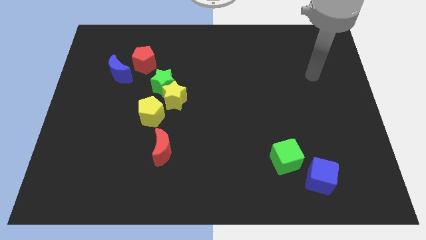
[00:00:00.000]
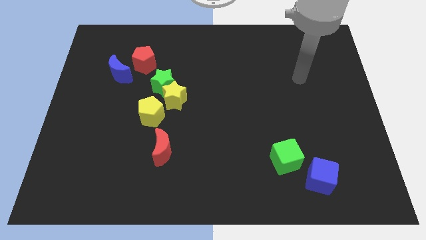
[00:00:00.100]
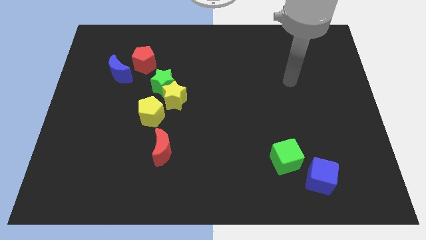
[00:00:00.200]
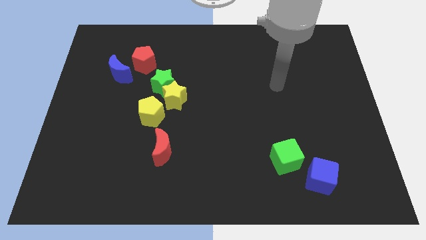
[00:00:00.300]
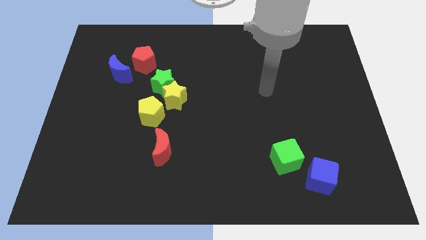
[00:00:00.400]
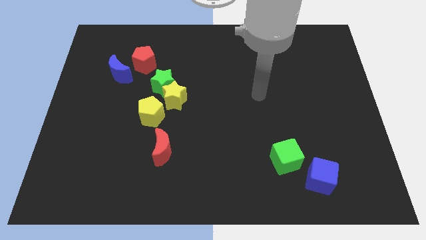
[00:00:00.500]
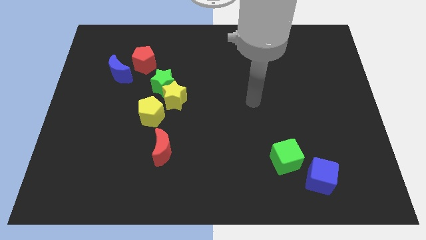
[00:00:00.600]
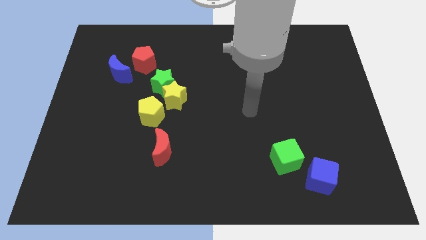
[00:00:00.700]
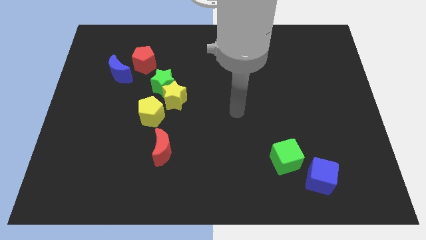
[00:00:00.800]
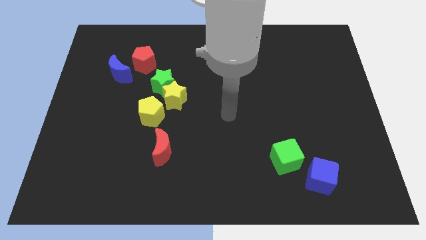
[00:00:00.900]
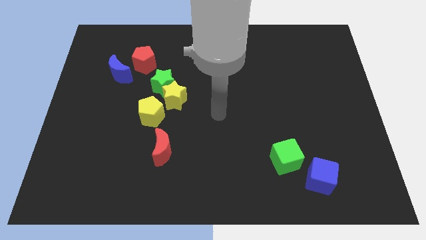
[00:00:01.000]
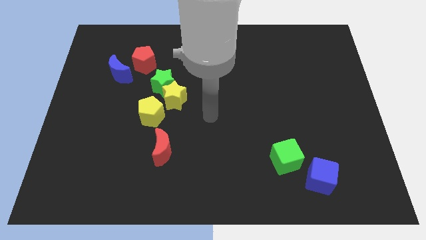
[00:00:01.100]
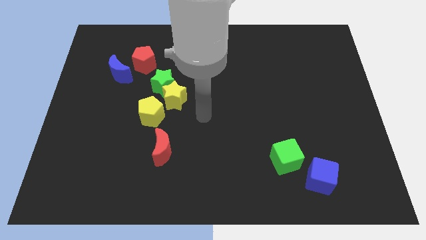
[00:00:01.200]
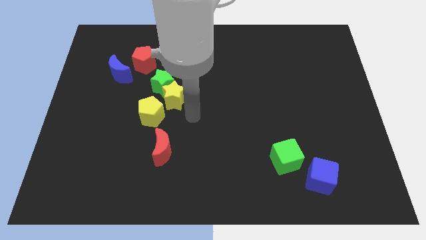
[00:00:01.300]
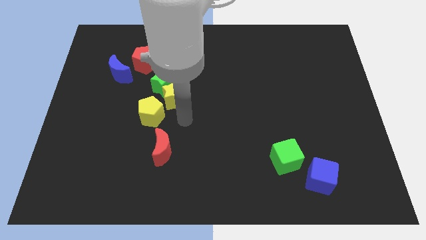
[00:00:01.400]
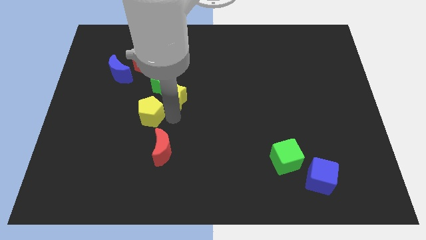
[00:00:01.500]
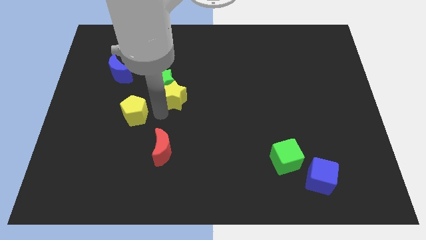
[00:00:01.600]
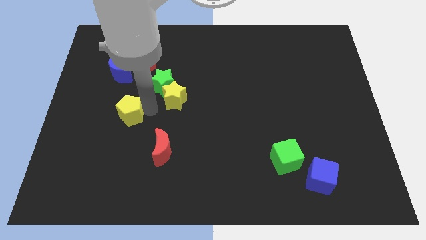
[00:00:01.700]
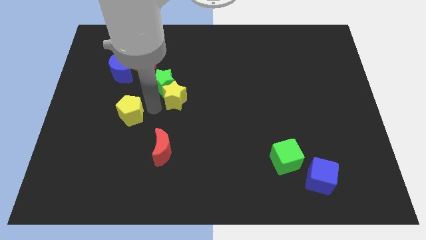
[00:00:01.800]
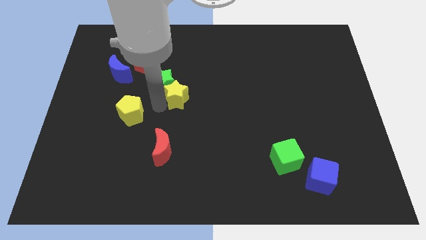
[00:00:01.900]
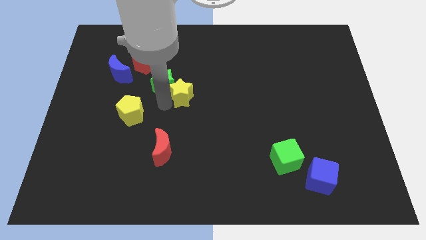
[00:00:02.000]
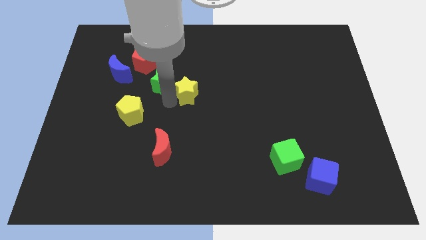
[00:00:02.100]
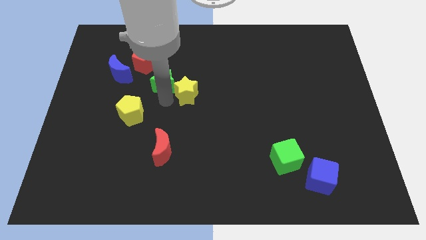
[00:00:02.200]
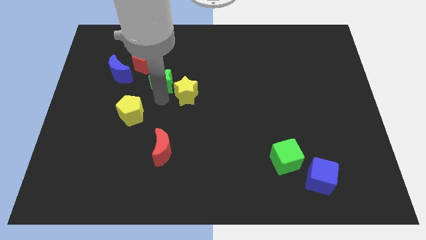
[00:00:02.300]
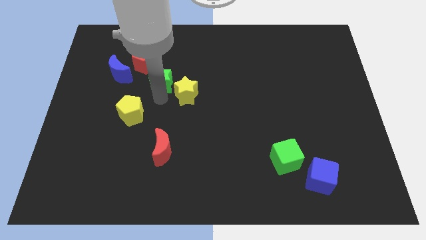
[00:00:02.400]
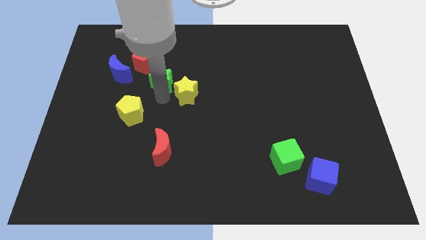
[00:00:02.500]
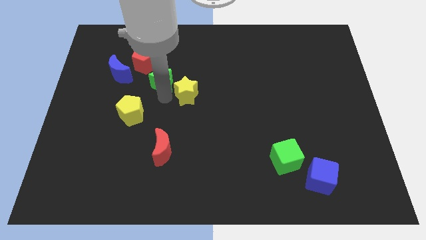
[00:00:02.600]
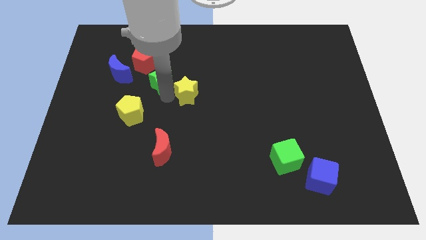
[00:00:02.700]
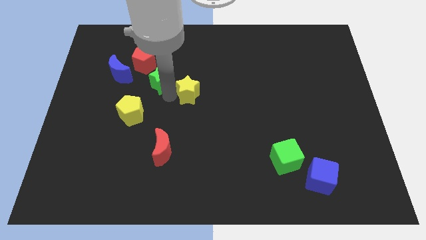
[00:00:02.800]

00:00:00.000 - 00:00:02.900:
pull the yellow star apart from the green star and yellow pentagon

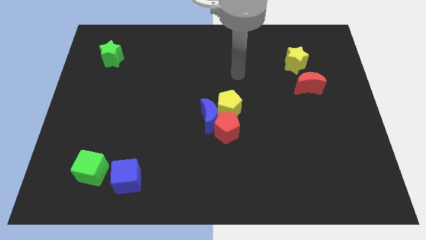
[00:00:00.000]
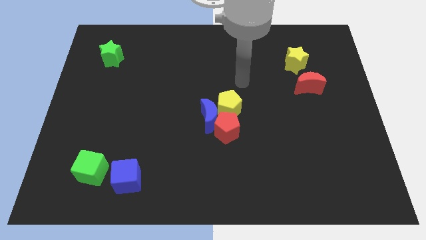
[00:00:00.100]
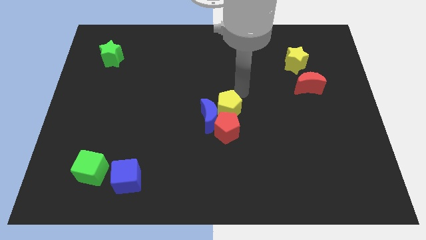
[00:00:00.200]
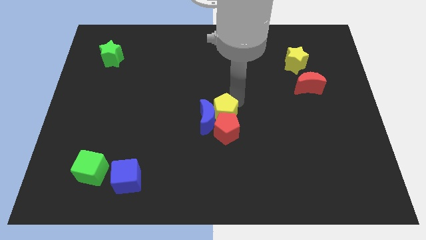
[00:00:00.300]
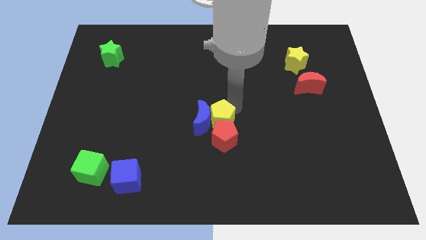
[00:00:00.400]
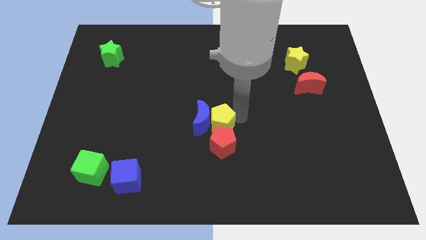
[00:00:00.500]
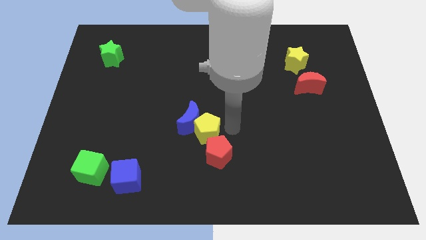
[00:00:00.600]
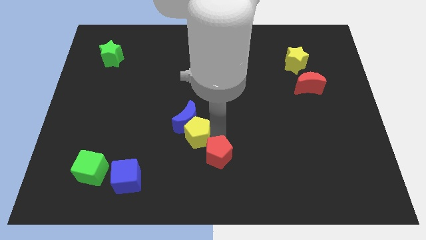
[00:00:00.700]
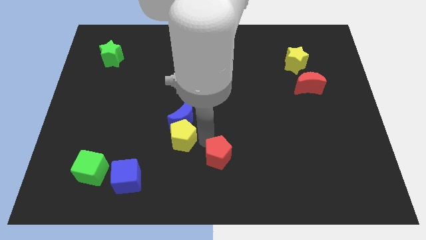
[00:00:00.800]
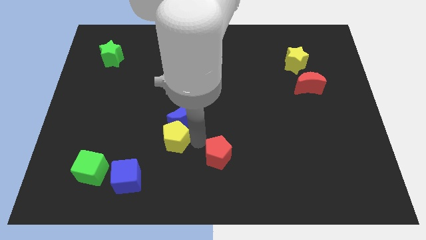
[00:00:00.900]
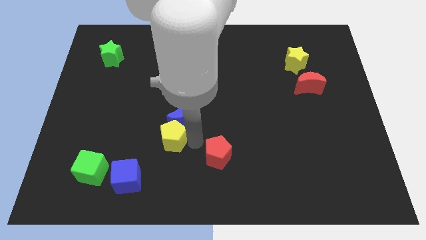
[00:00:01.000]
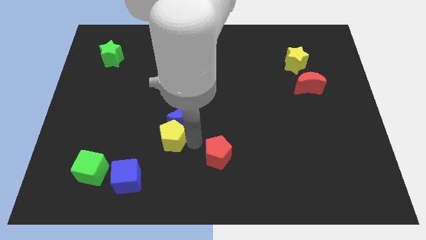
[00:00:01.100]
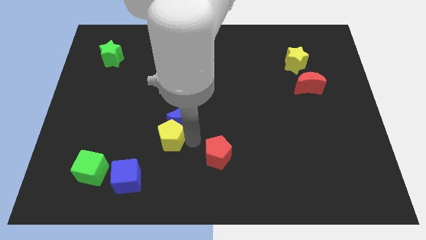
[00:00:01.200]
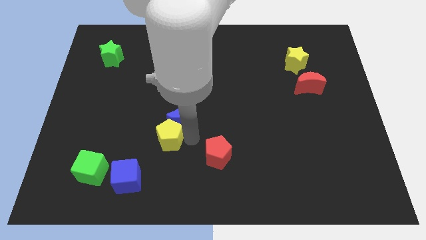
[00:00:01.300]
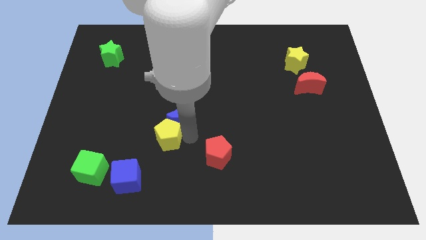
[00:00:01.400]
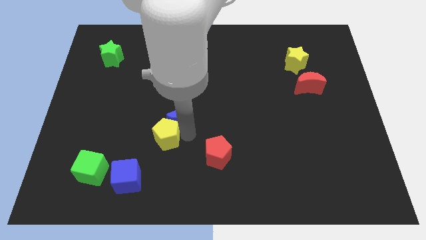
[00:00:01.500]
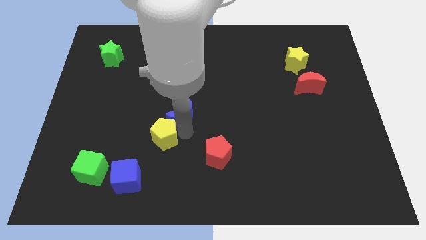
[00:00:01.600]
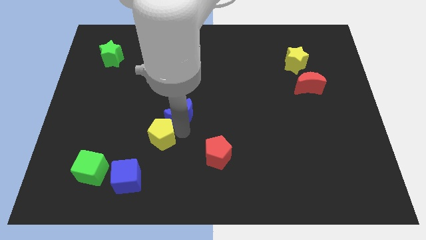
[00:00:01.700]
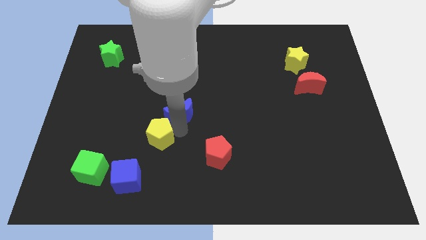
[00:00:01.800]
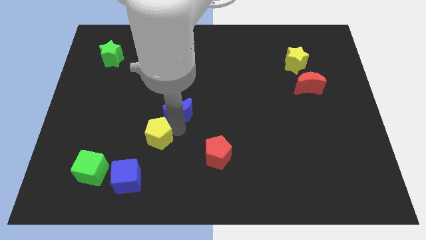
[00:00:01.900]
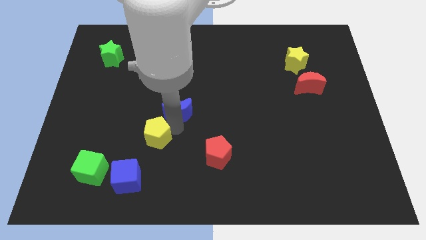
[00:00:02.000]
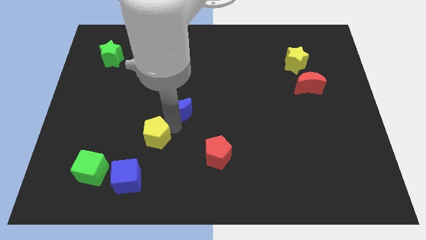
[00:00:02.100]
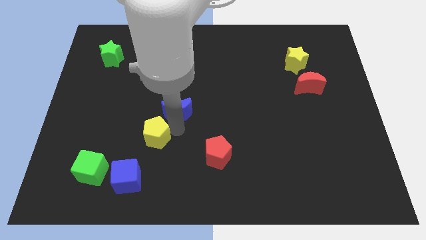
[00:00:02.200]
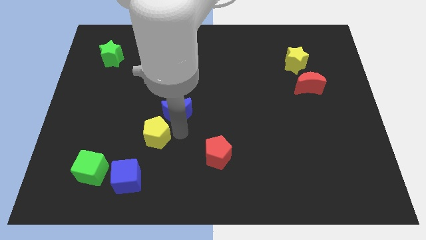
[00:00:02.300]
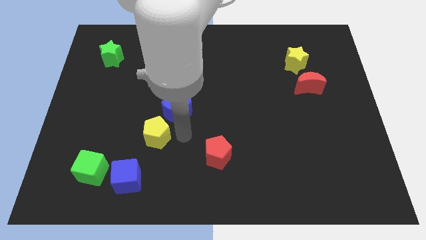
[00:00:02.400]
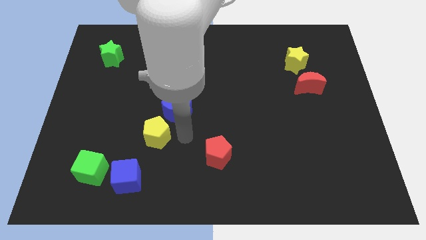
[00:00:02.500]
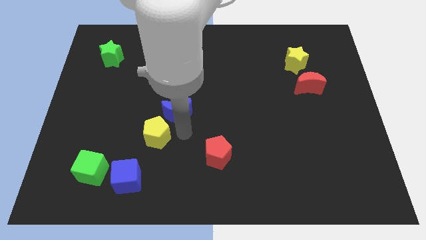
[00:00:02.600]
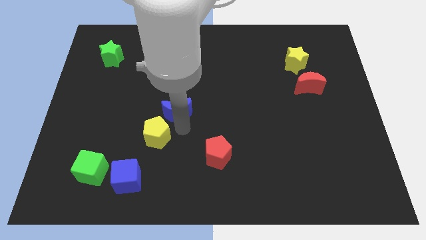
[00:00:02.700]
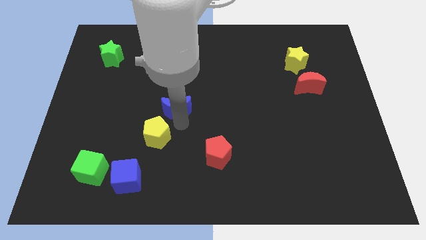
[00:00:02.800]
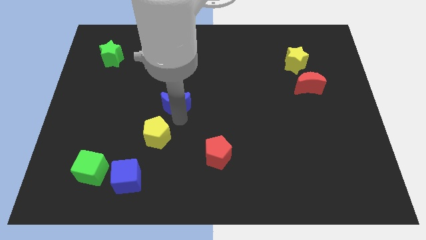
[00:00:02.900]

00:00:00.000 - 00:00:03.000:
pull the blue moon apart from the red pentagon and yellow pentagon

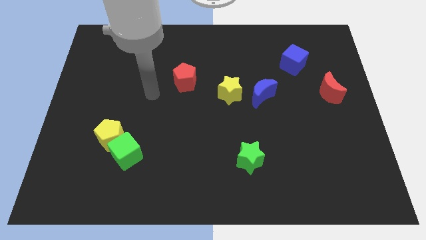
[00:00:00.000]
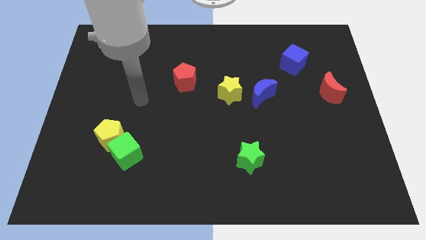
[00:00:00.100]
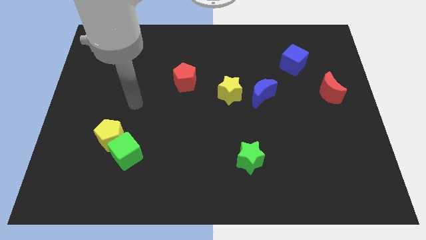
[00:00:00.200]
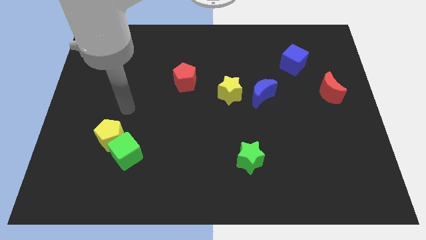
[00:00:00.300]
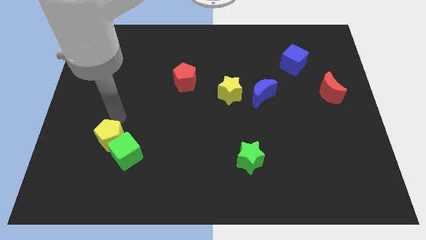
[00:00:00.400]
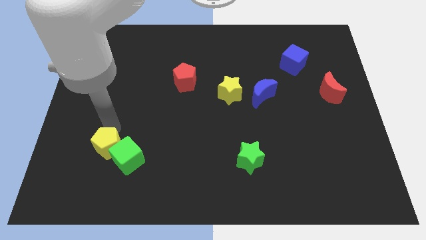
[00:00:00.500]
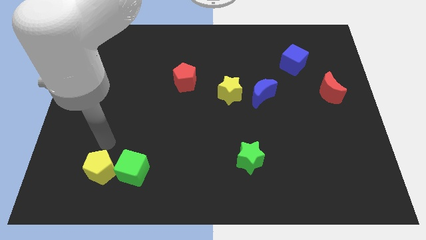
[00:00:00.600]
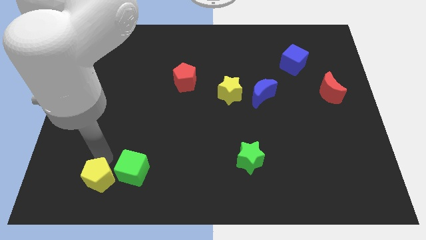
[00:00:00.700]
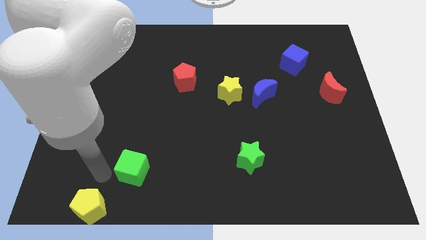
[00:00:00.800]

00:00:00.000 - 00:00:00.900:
separate the green cube from the yellow pentagon

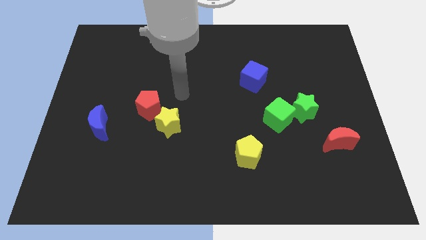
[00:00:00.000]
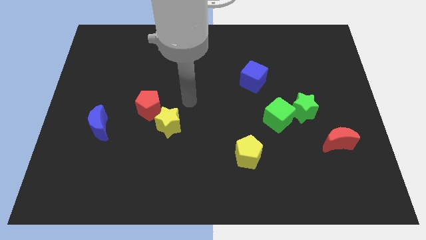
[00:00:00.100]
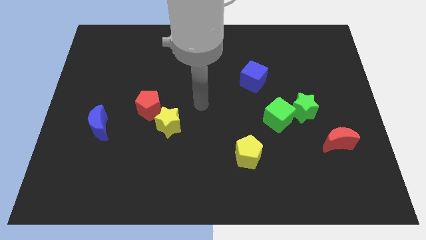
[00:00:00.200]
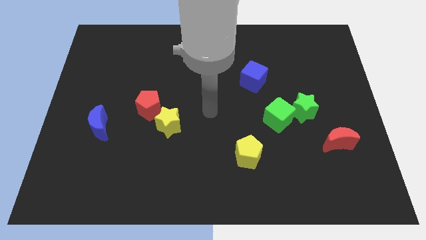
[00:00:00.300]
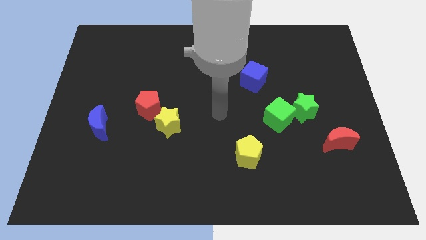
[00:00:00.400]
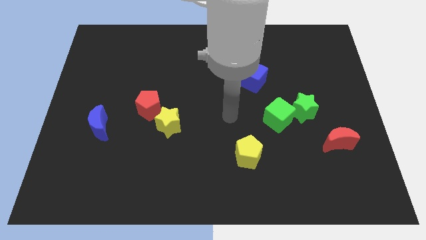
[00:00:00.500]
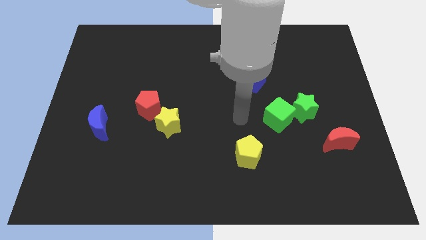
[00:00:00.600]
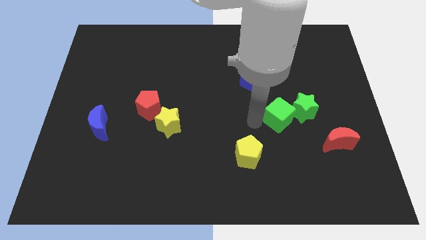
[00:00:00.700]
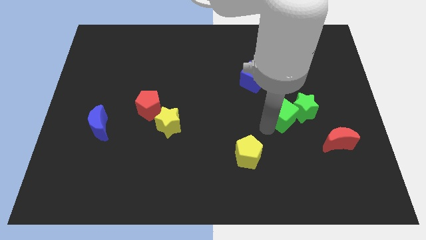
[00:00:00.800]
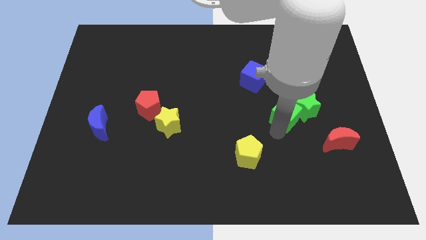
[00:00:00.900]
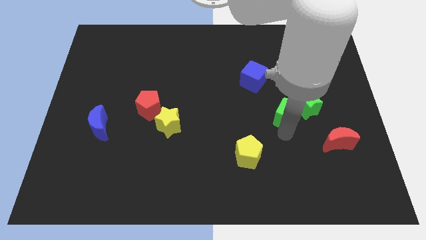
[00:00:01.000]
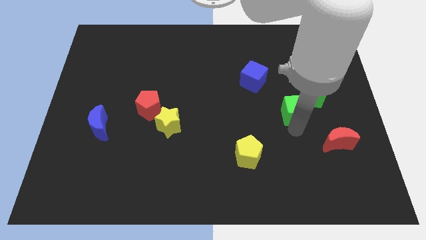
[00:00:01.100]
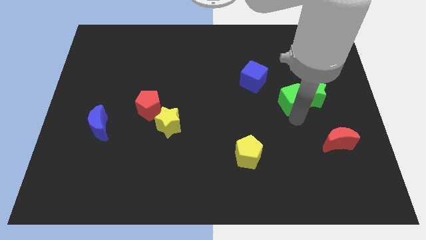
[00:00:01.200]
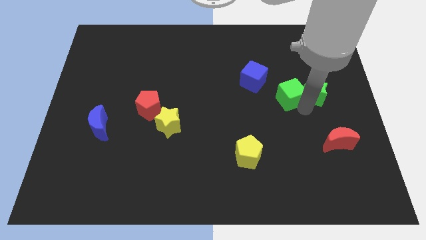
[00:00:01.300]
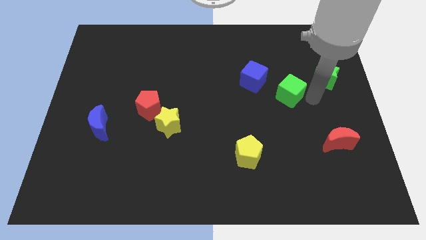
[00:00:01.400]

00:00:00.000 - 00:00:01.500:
move the green cube away from the green star

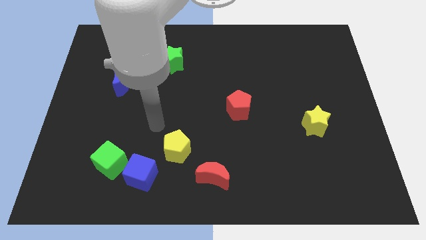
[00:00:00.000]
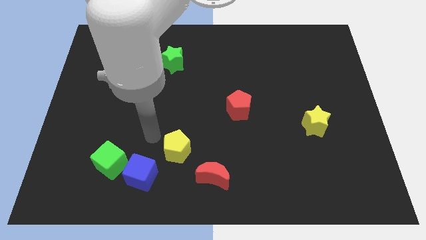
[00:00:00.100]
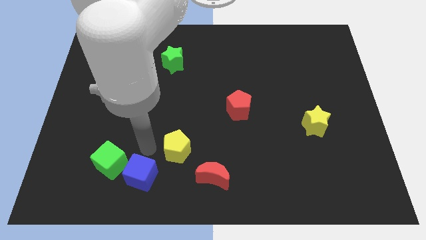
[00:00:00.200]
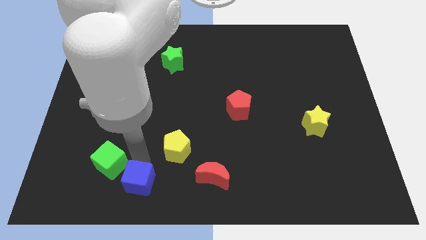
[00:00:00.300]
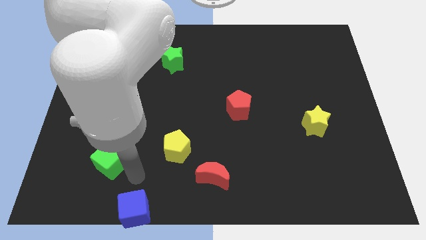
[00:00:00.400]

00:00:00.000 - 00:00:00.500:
move the green cube away from the blue cube

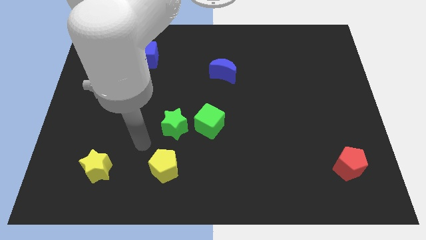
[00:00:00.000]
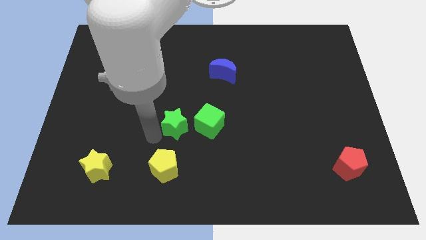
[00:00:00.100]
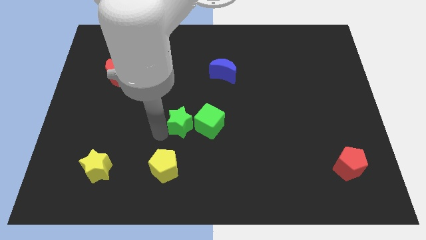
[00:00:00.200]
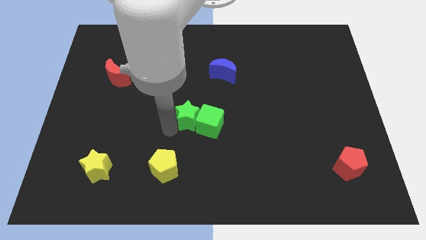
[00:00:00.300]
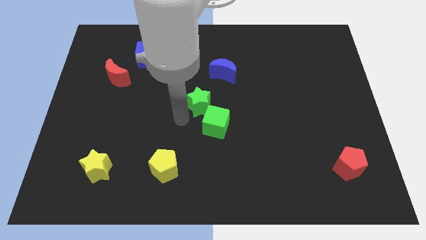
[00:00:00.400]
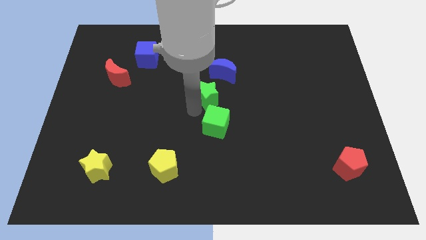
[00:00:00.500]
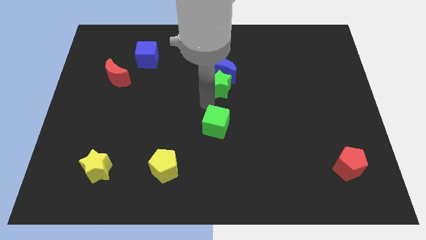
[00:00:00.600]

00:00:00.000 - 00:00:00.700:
separate the green cube from the green star
